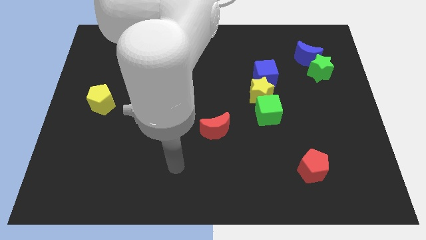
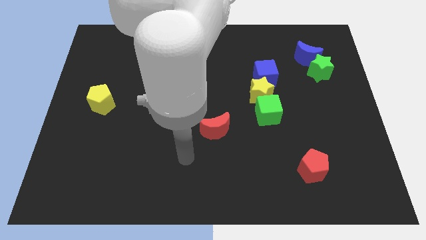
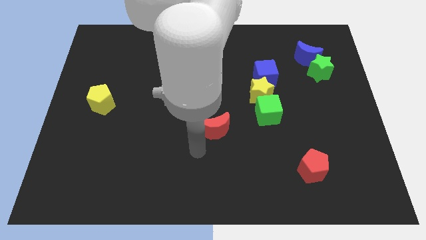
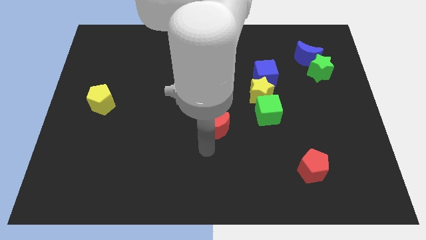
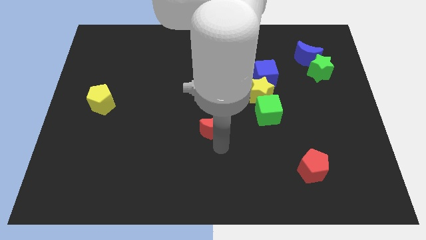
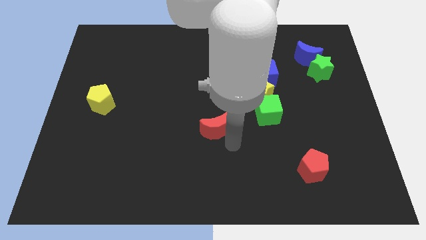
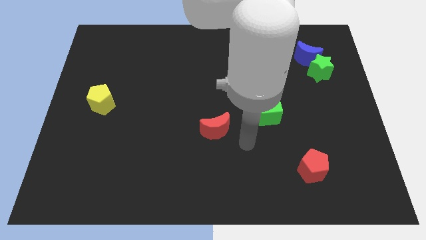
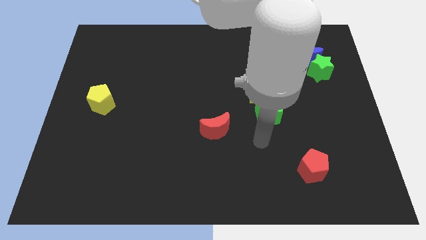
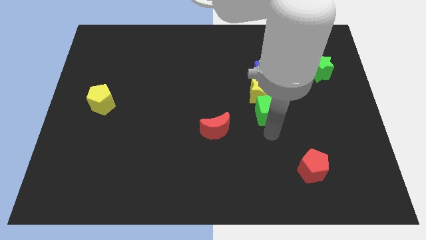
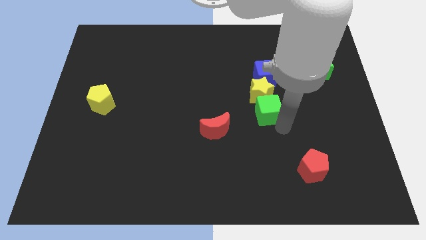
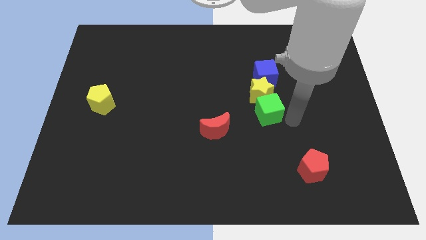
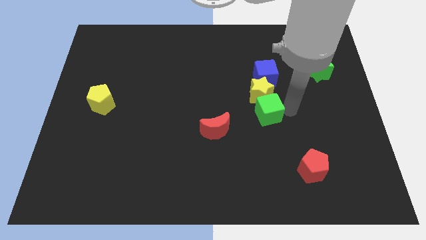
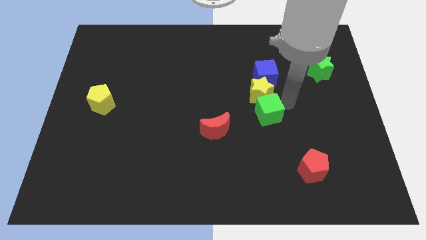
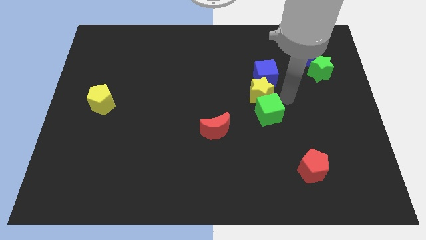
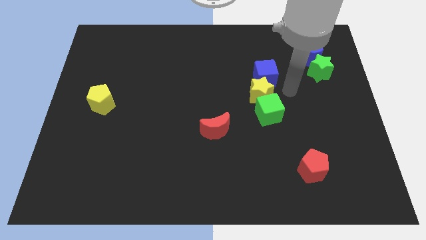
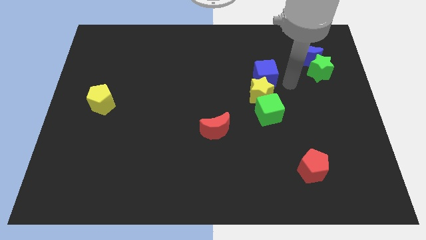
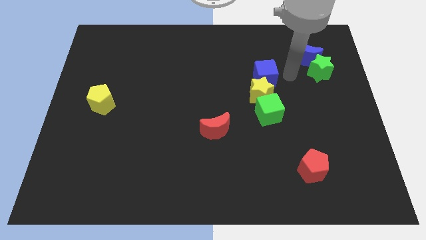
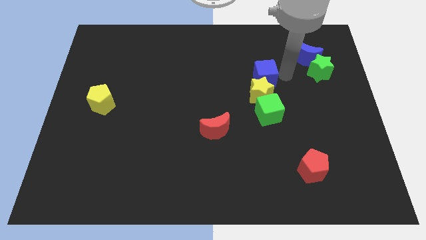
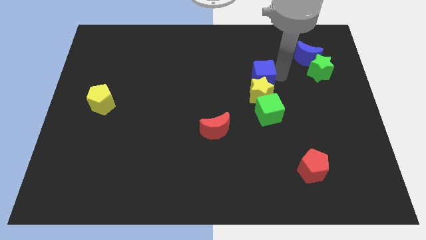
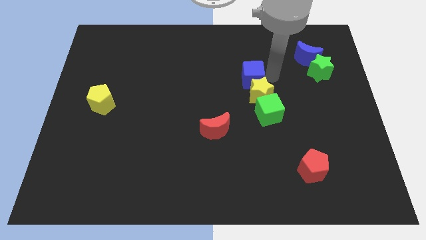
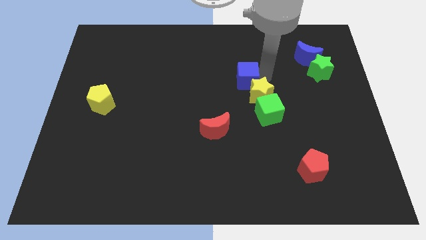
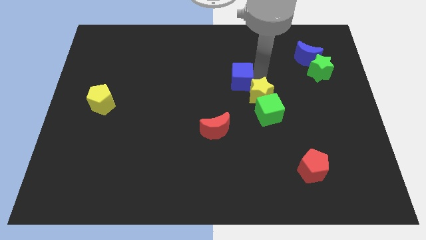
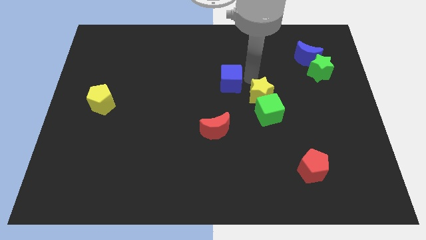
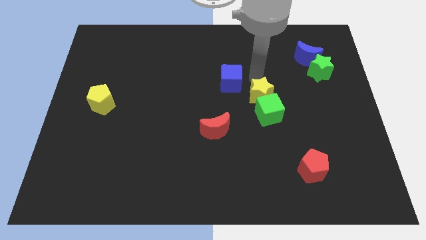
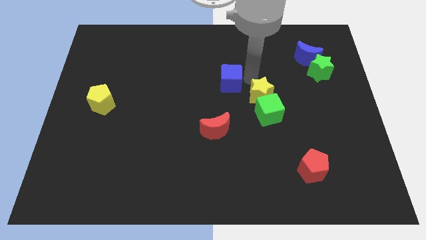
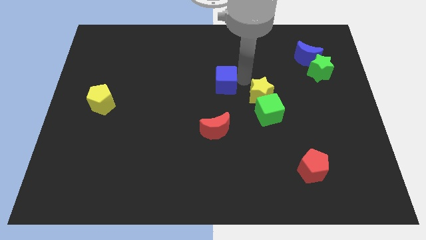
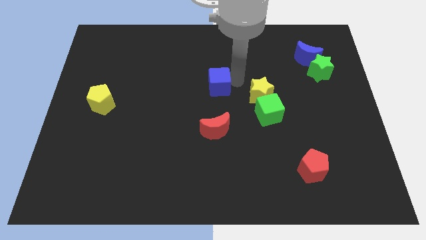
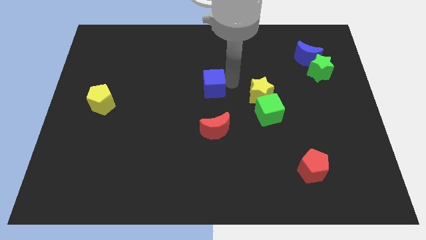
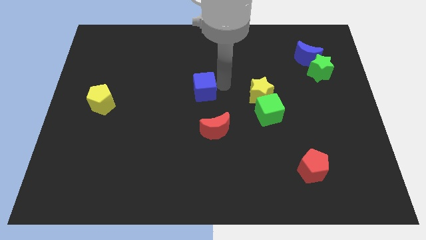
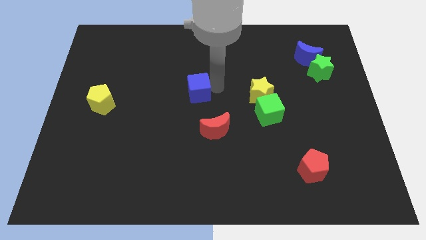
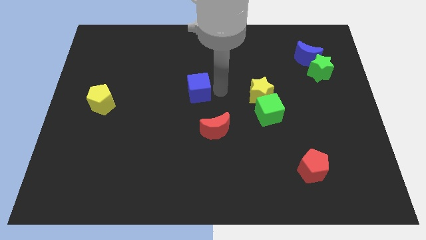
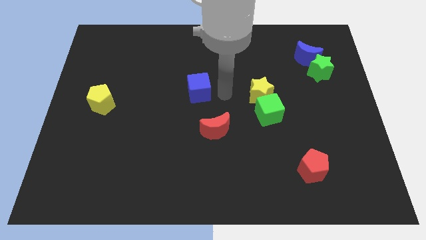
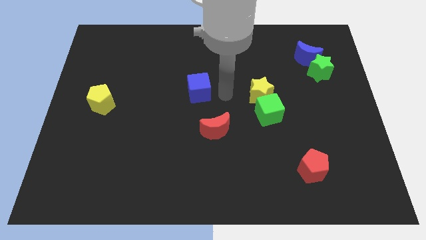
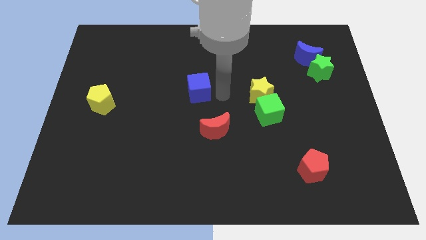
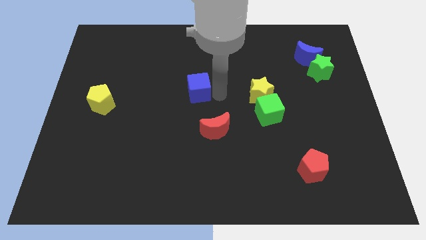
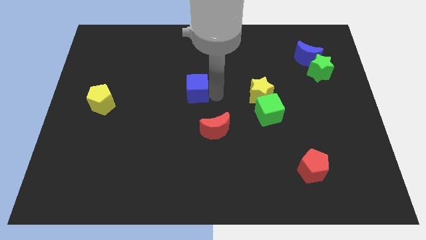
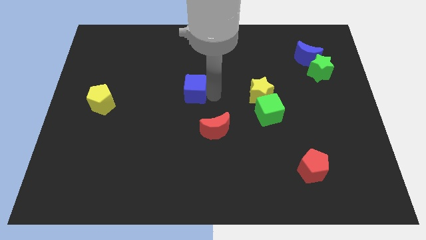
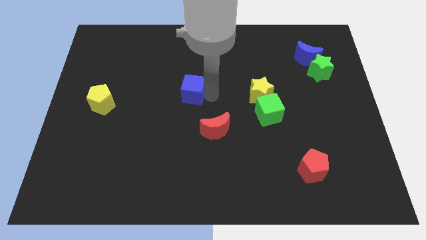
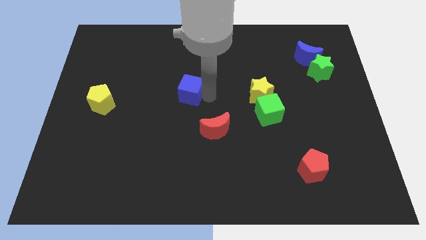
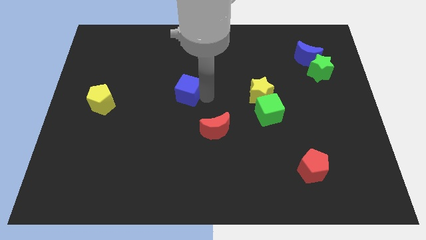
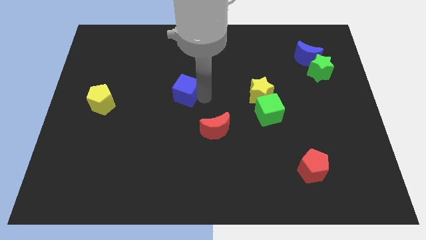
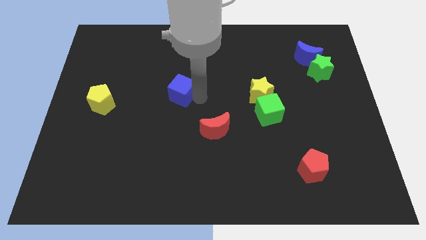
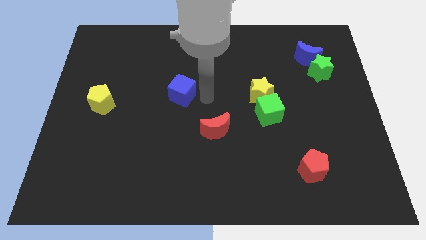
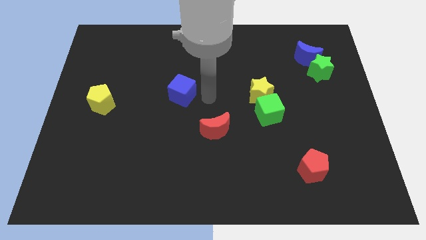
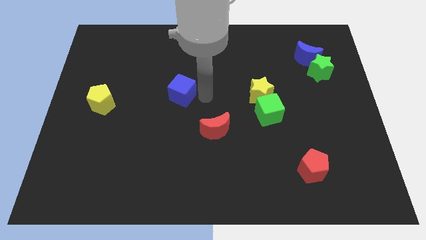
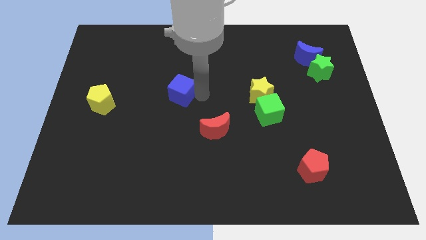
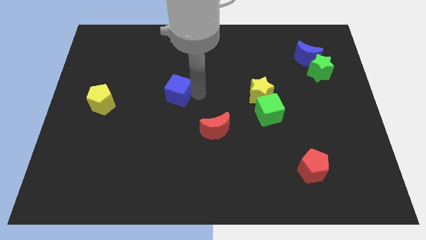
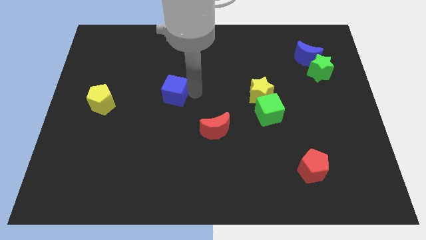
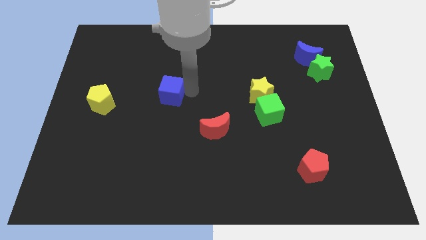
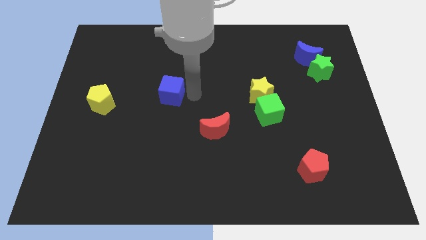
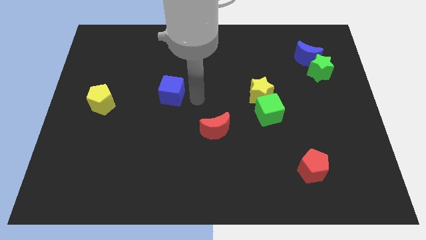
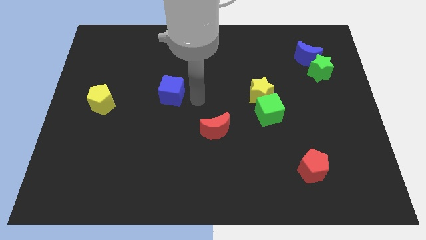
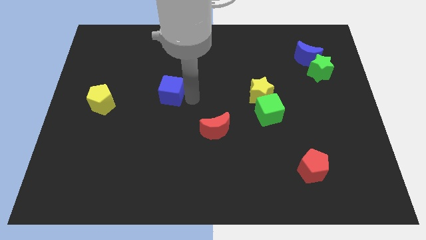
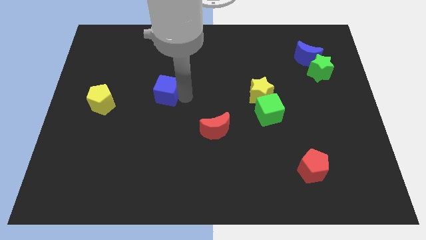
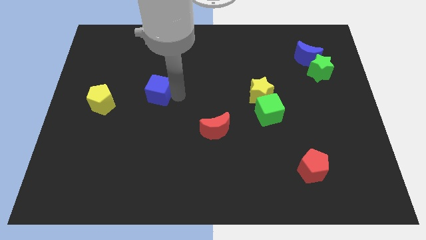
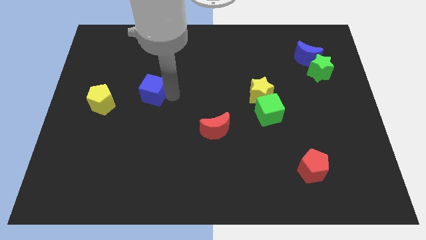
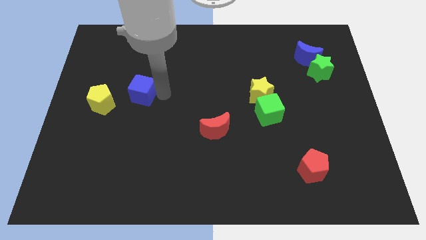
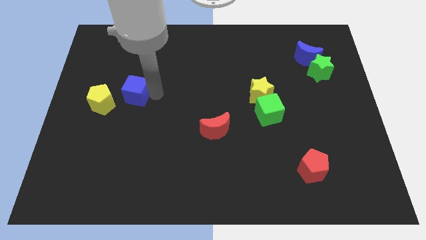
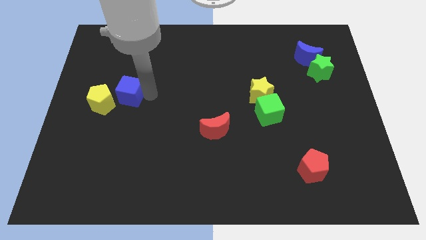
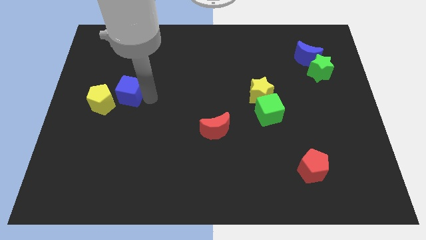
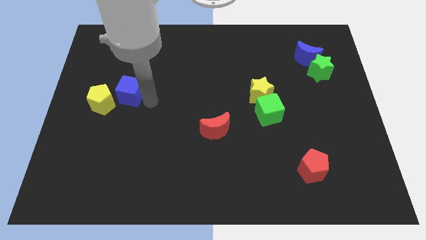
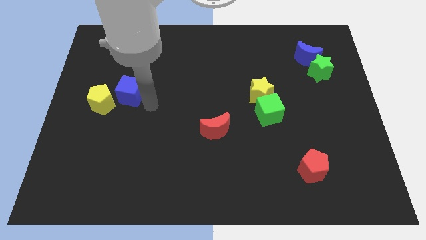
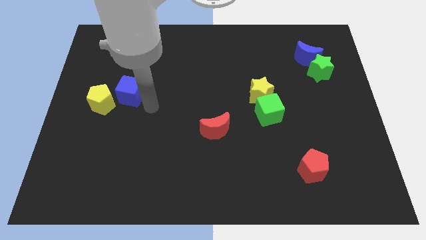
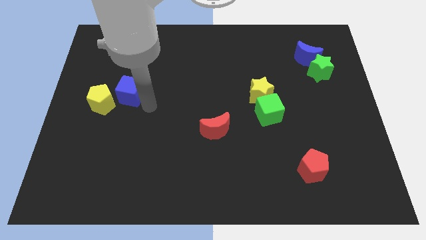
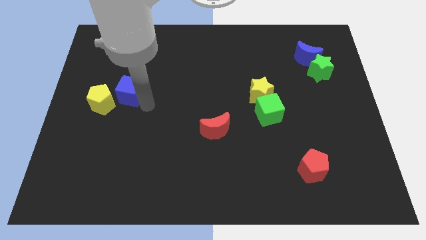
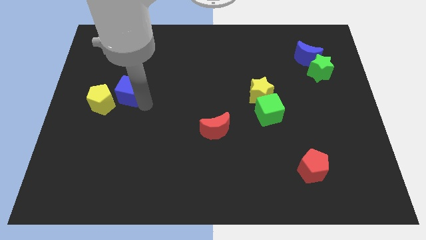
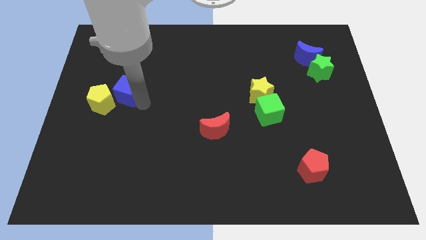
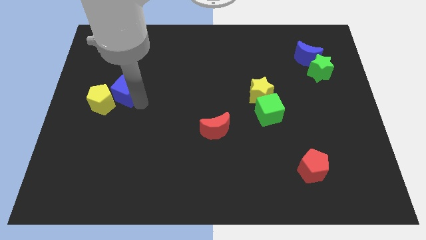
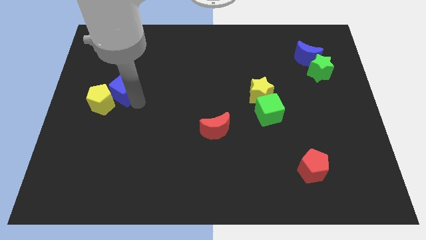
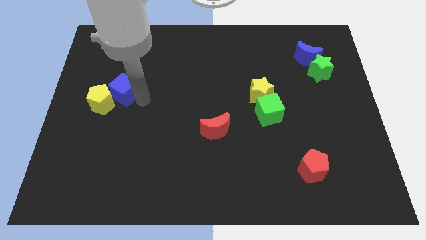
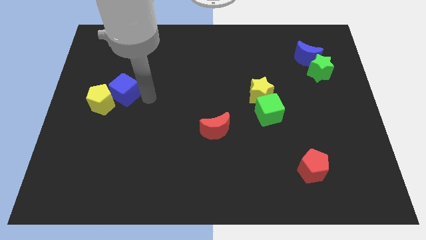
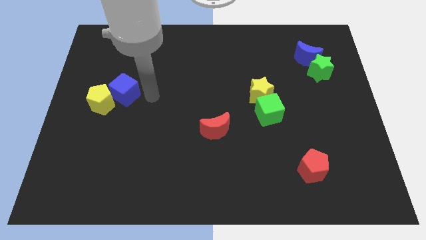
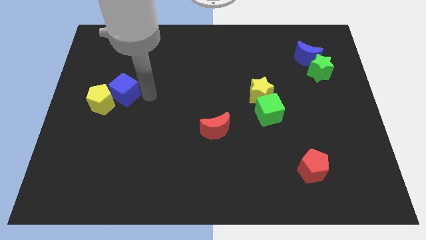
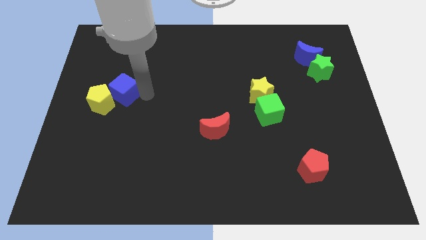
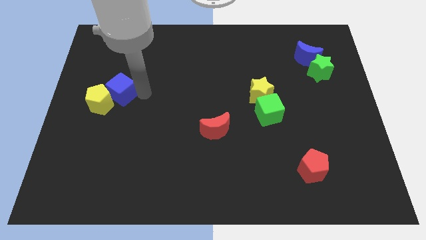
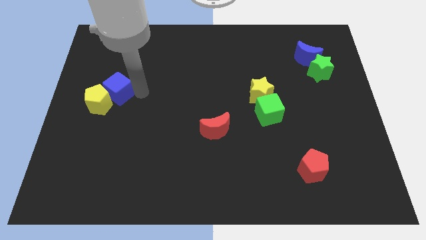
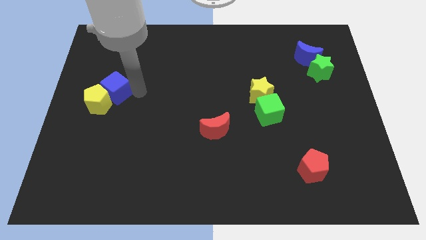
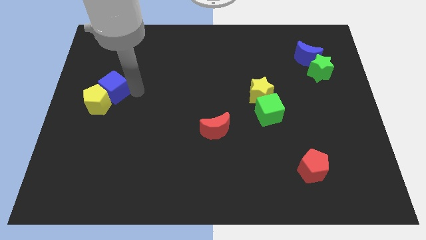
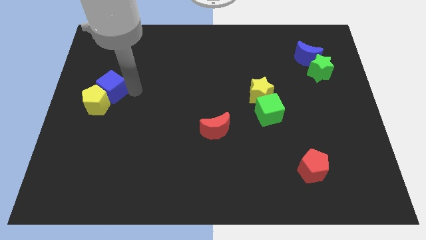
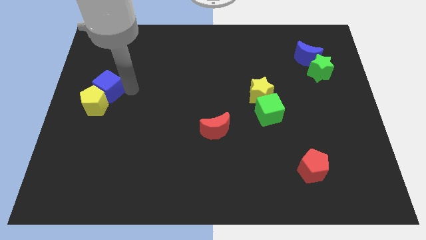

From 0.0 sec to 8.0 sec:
push the blue cube to the left side of the board
